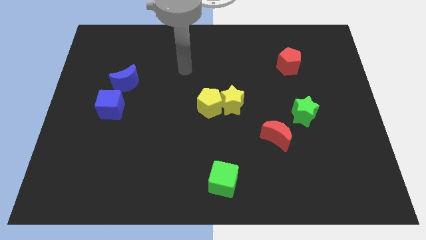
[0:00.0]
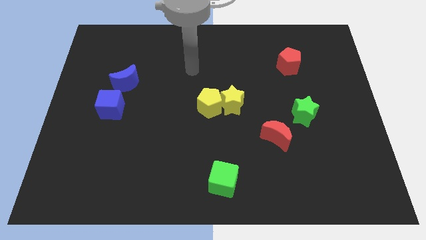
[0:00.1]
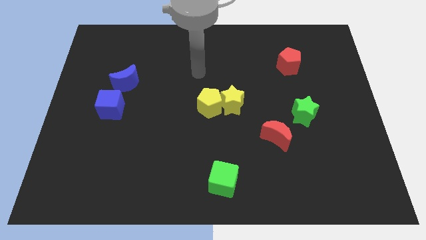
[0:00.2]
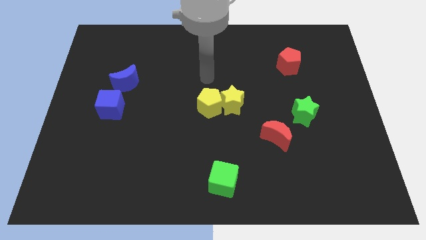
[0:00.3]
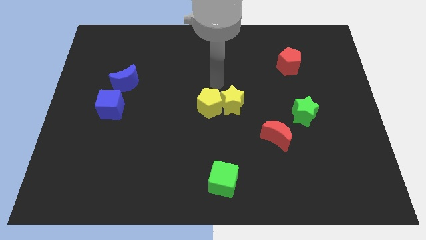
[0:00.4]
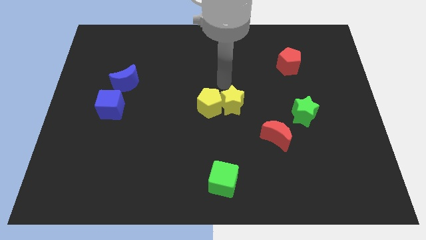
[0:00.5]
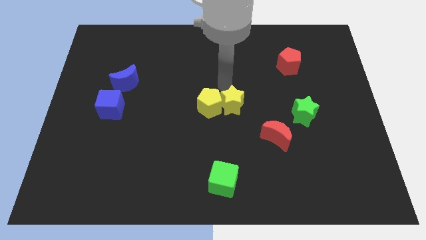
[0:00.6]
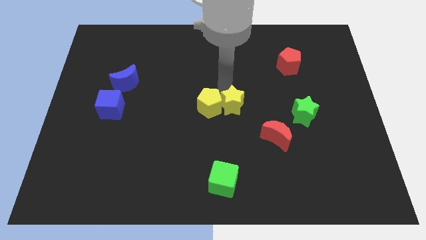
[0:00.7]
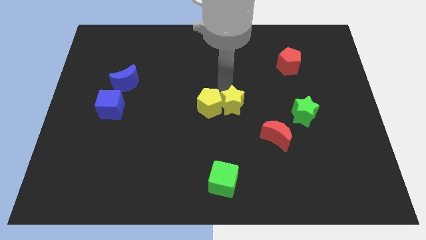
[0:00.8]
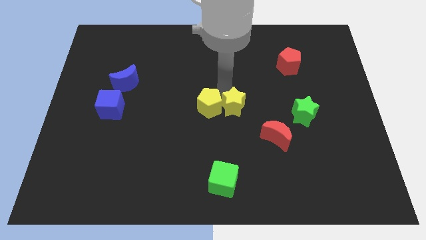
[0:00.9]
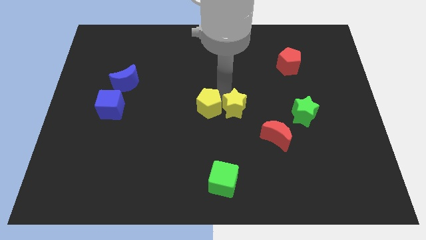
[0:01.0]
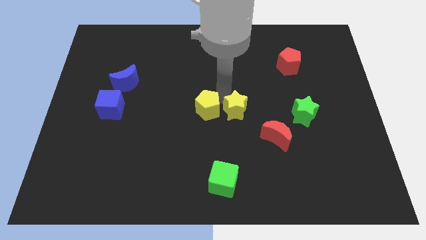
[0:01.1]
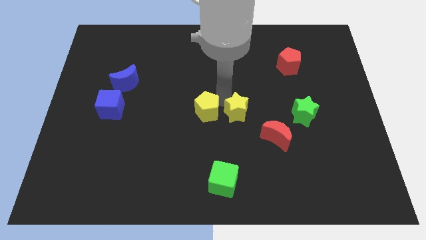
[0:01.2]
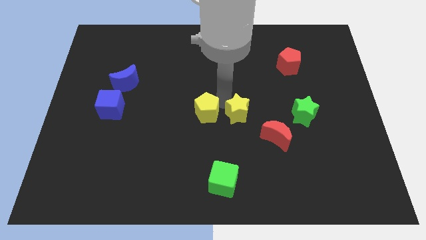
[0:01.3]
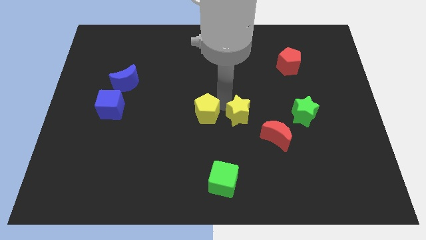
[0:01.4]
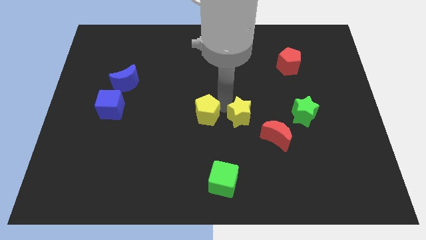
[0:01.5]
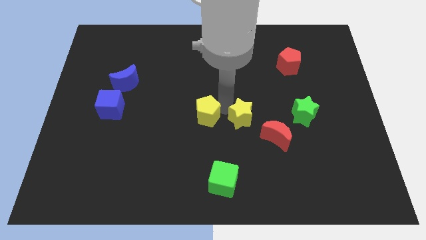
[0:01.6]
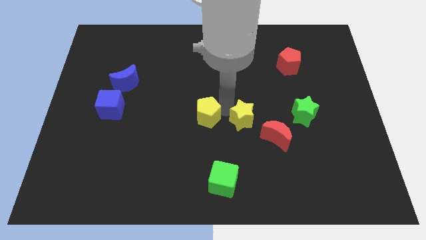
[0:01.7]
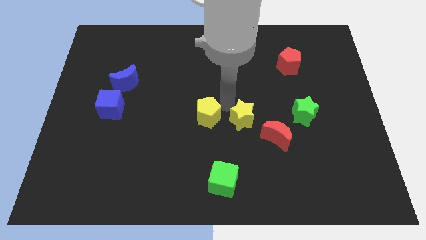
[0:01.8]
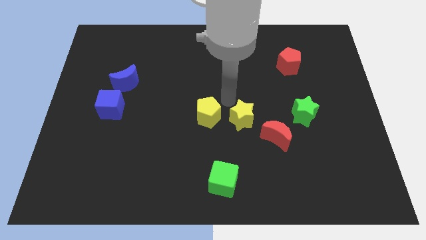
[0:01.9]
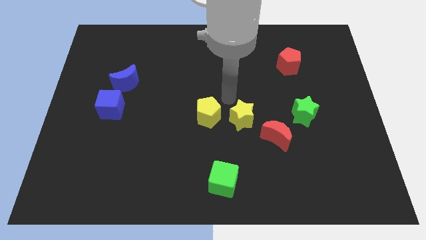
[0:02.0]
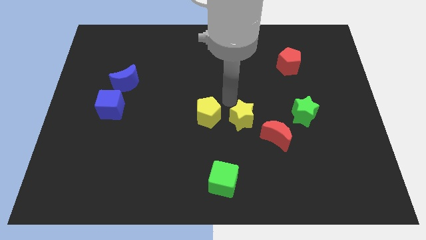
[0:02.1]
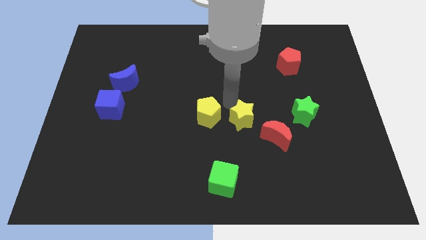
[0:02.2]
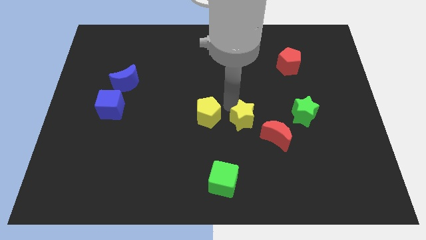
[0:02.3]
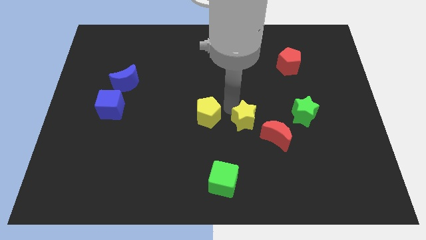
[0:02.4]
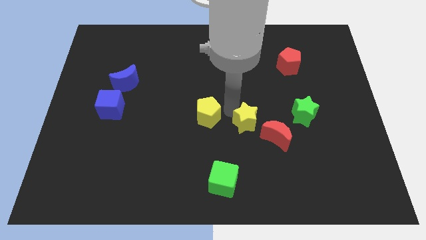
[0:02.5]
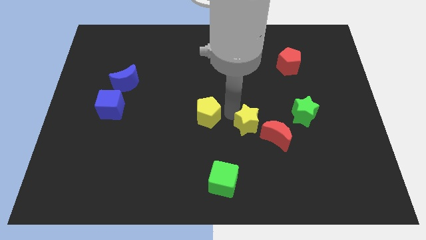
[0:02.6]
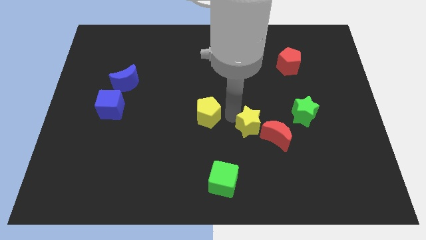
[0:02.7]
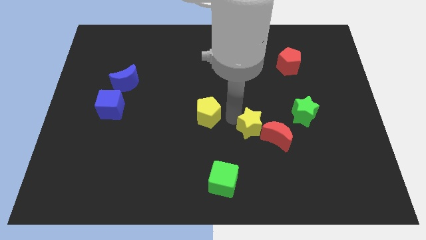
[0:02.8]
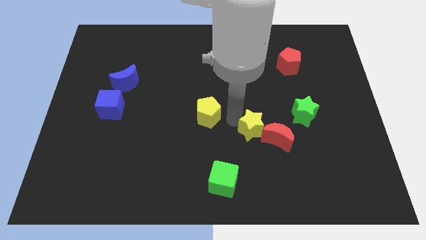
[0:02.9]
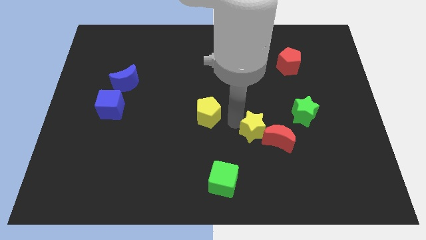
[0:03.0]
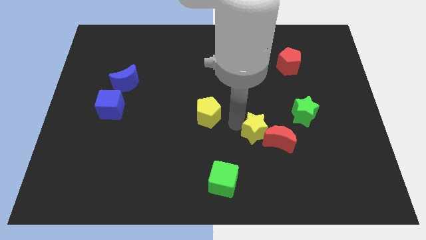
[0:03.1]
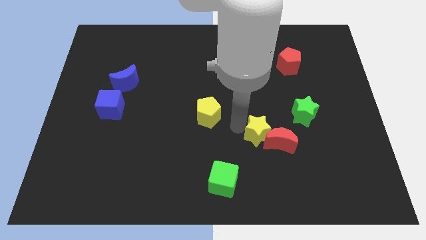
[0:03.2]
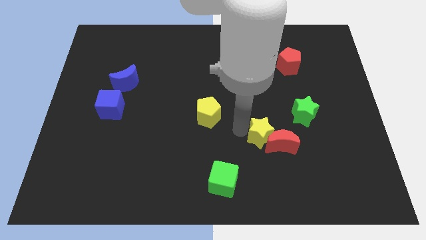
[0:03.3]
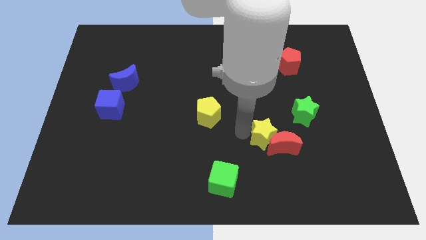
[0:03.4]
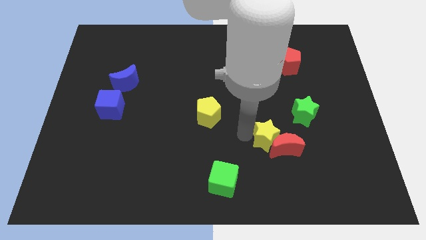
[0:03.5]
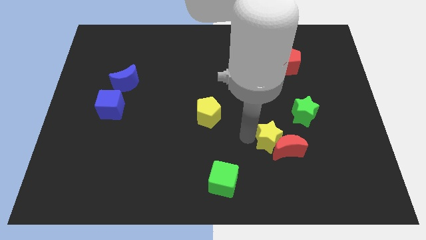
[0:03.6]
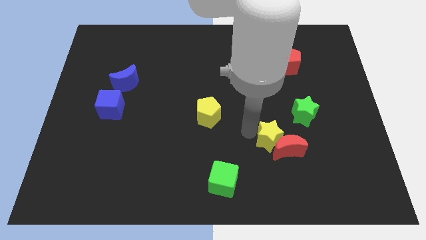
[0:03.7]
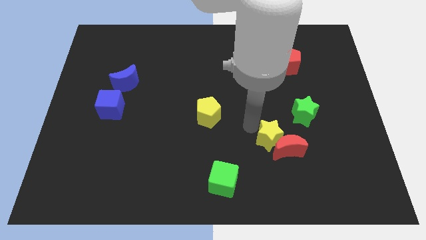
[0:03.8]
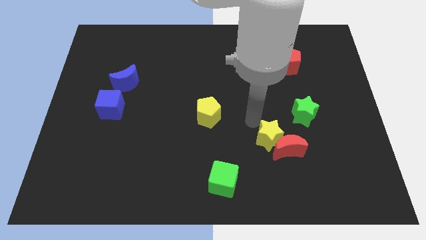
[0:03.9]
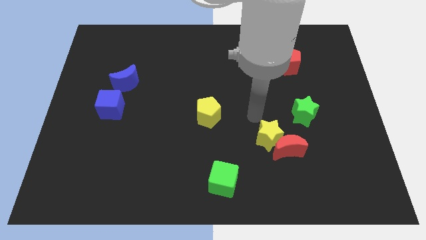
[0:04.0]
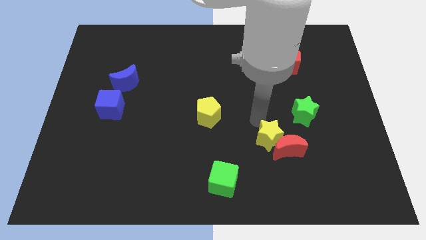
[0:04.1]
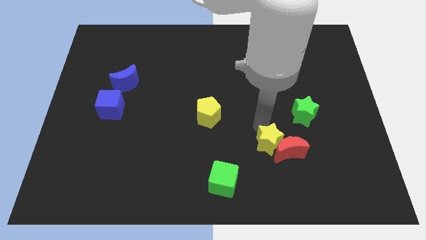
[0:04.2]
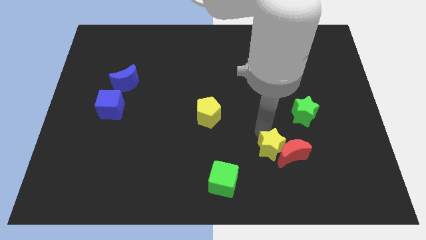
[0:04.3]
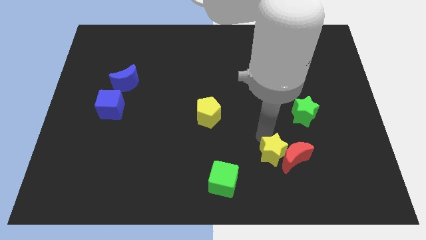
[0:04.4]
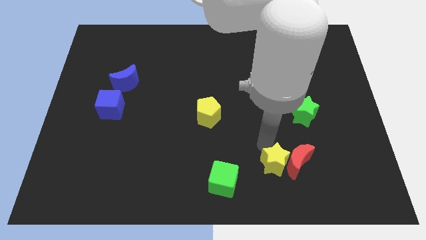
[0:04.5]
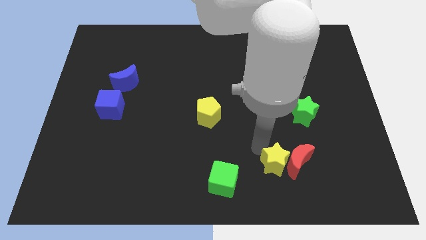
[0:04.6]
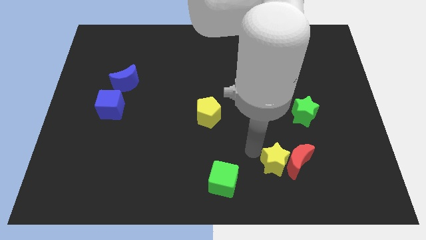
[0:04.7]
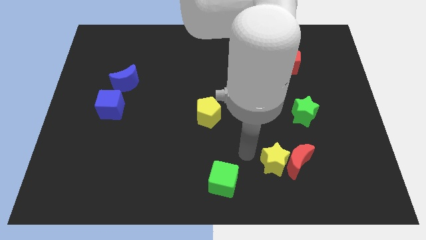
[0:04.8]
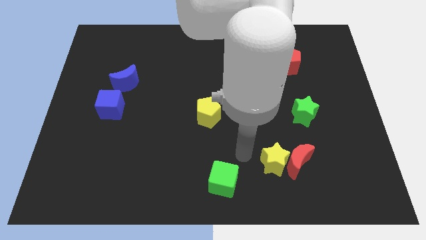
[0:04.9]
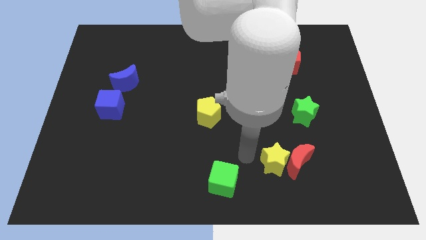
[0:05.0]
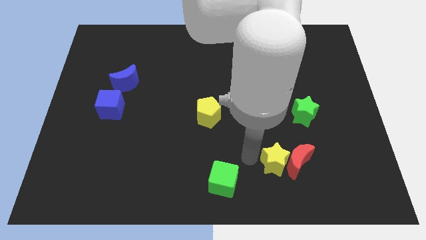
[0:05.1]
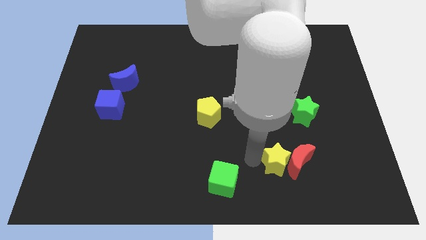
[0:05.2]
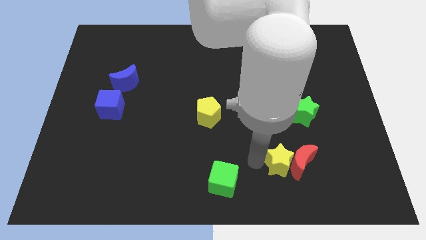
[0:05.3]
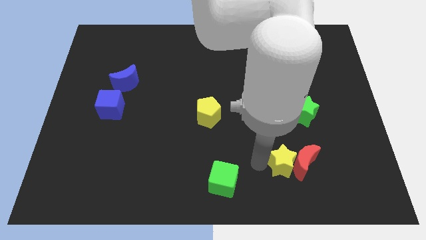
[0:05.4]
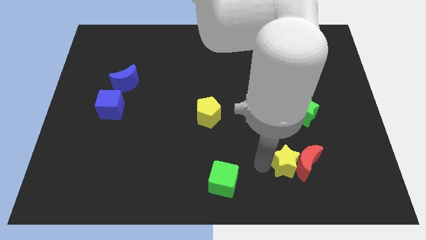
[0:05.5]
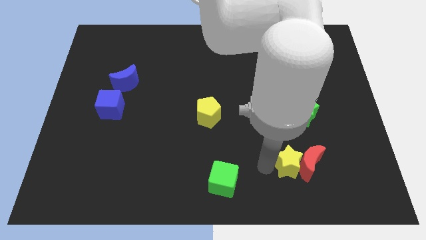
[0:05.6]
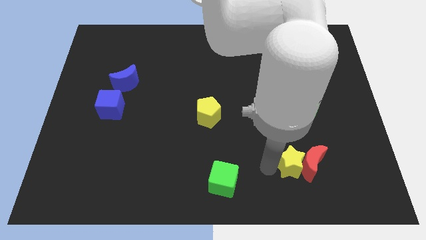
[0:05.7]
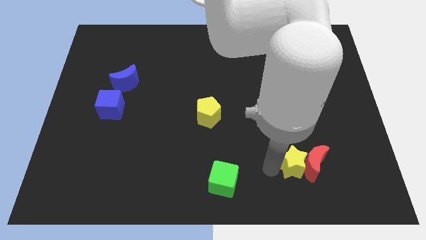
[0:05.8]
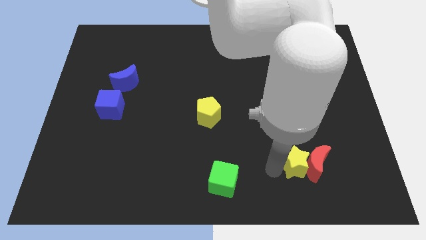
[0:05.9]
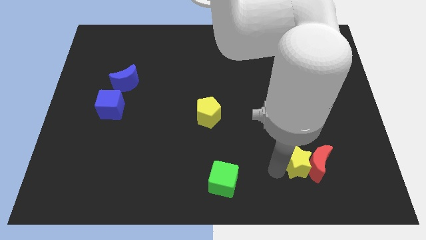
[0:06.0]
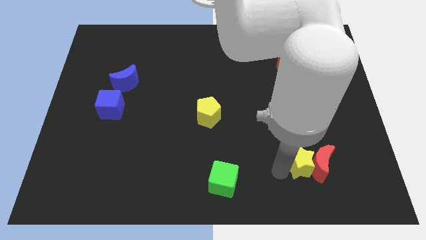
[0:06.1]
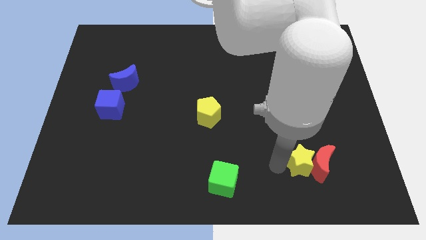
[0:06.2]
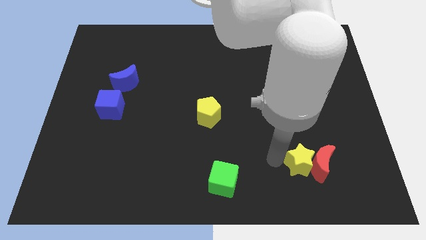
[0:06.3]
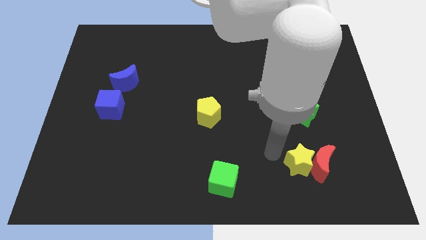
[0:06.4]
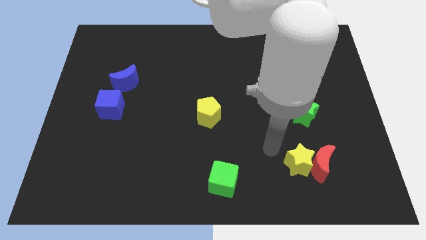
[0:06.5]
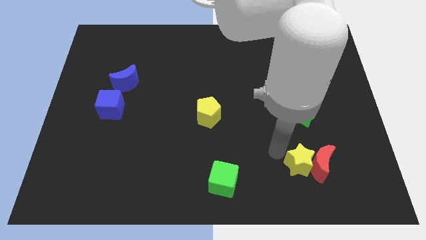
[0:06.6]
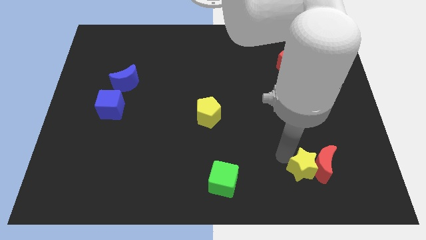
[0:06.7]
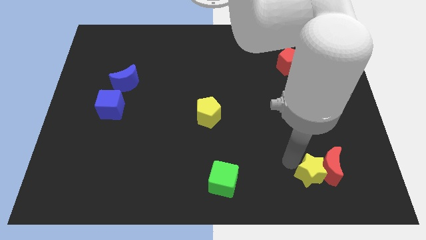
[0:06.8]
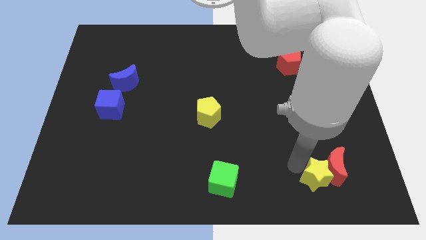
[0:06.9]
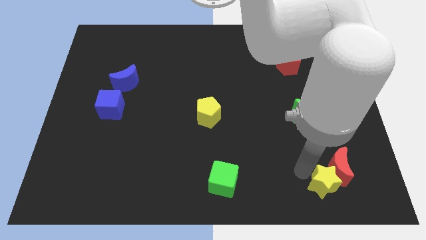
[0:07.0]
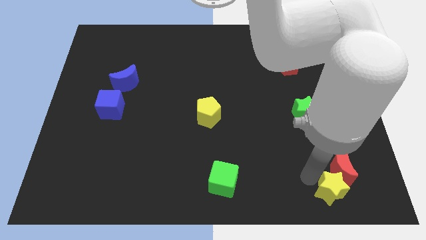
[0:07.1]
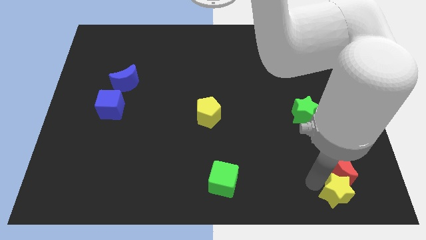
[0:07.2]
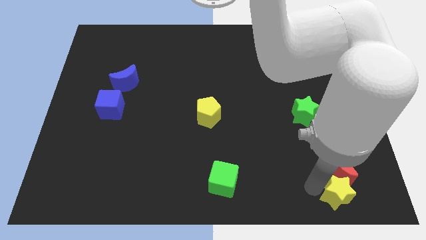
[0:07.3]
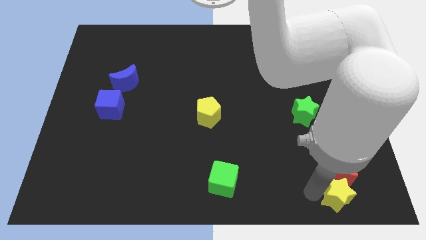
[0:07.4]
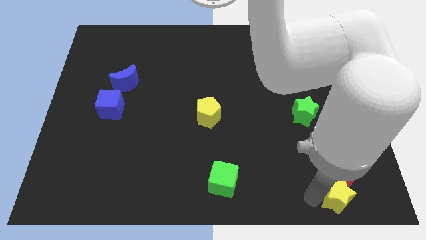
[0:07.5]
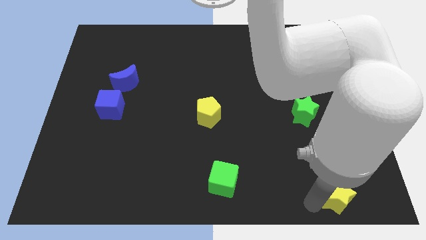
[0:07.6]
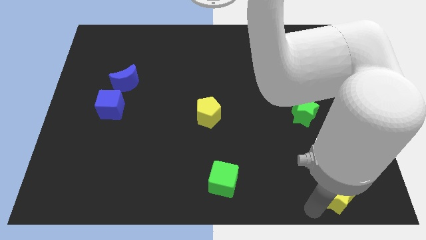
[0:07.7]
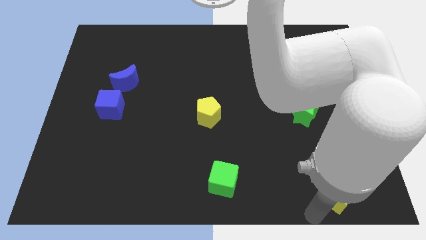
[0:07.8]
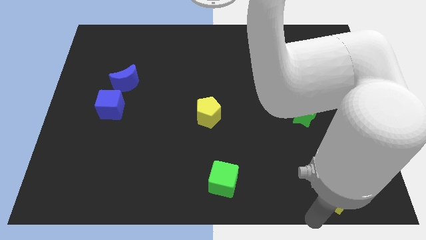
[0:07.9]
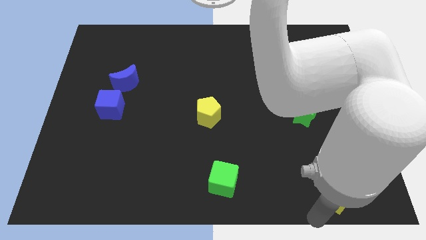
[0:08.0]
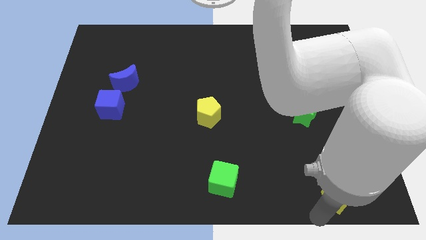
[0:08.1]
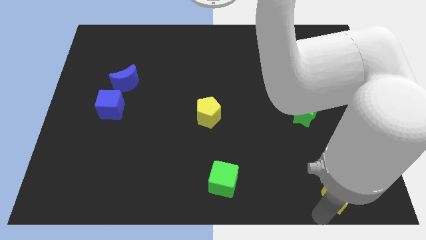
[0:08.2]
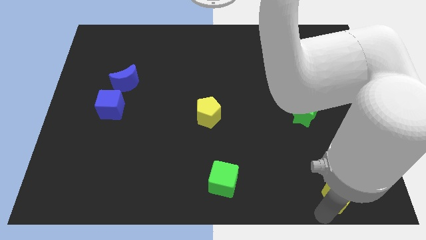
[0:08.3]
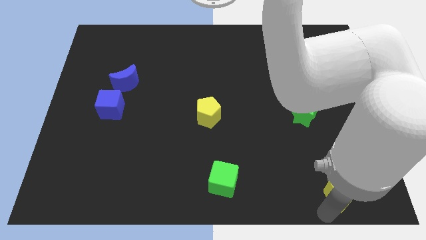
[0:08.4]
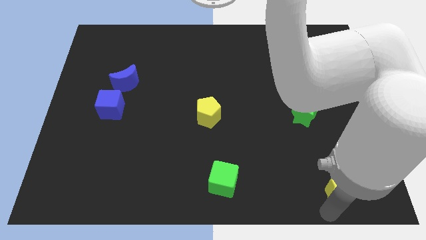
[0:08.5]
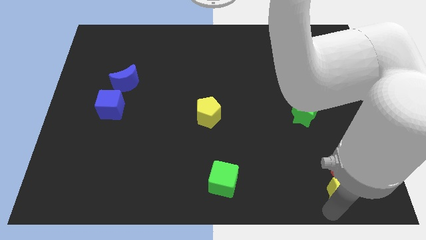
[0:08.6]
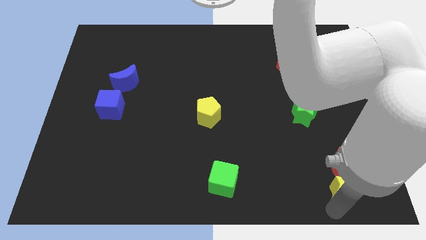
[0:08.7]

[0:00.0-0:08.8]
slide the yellow star to the bottom right corner
